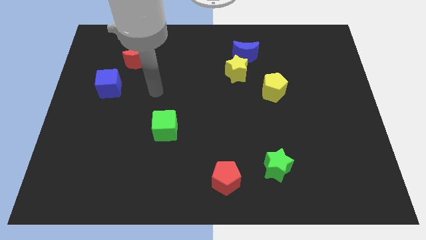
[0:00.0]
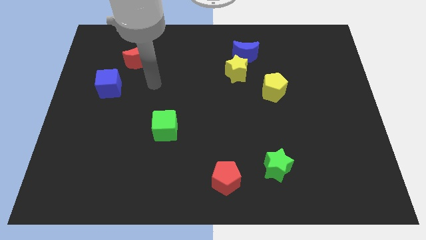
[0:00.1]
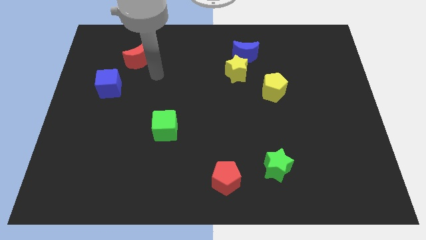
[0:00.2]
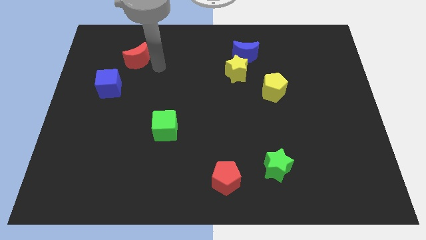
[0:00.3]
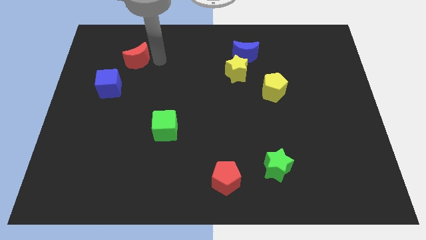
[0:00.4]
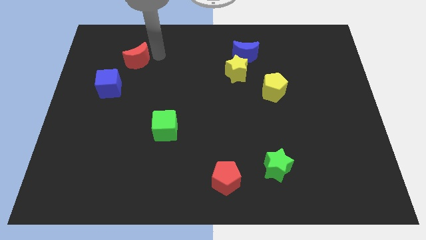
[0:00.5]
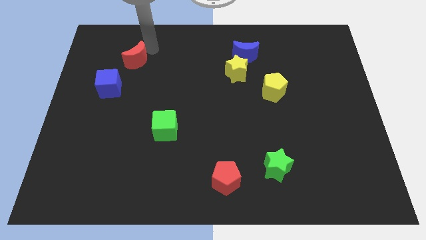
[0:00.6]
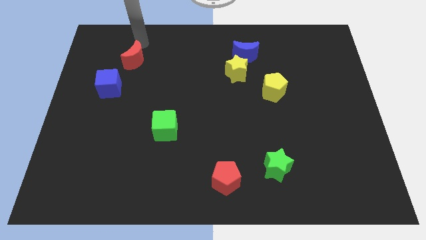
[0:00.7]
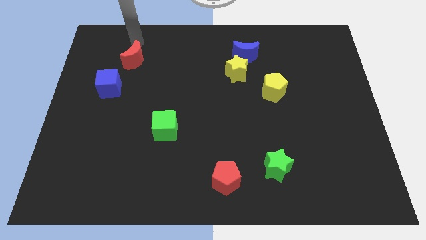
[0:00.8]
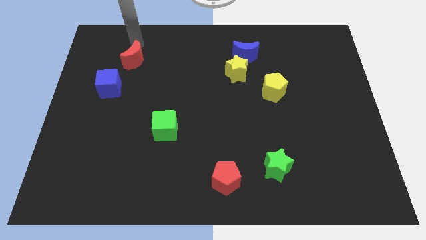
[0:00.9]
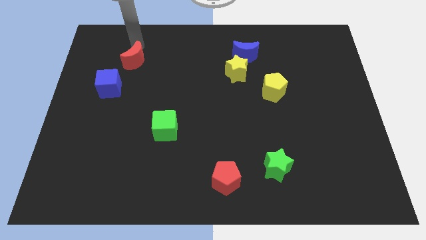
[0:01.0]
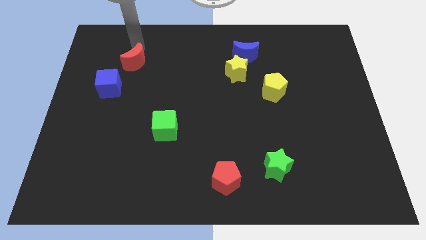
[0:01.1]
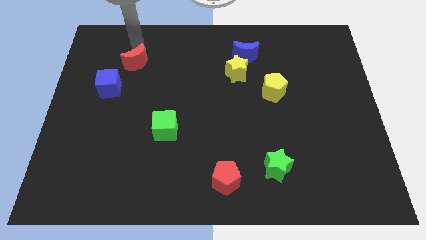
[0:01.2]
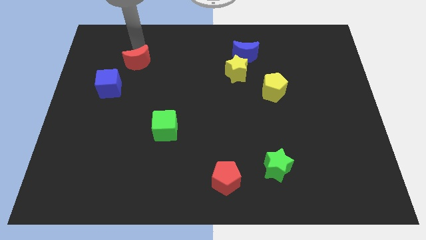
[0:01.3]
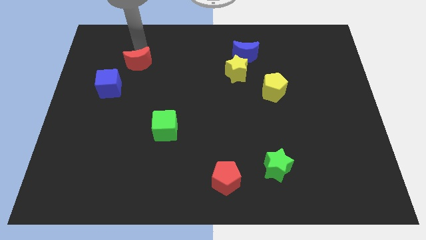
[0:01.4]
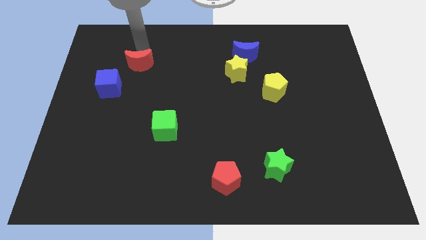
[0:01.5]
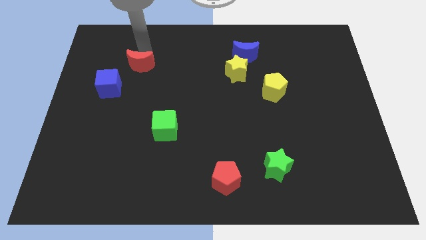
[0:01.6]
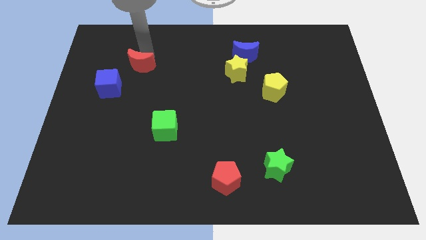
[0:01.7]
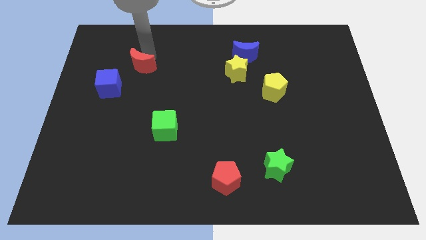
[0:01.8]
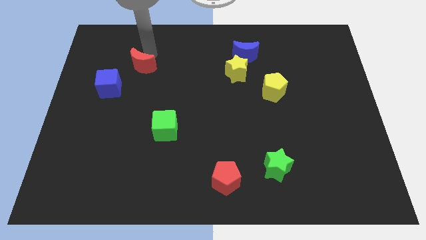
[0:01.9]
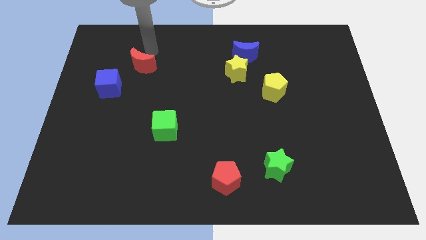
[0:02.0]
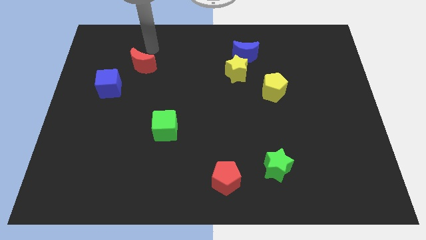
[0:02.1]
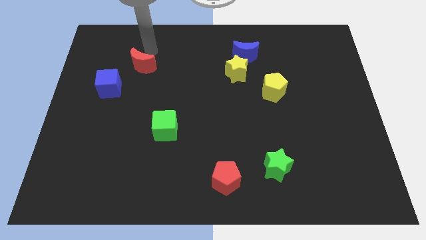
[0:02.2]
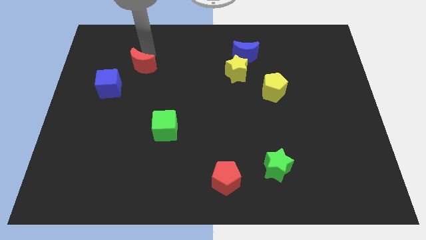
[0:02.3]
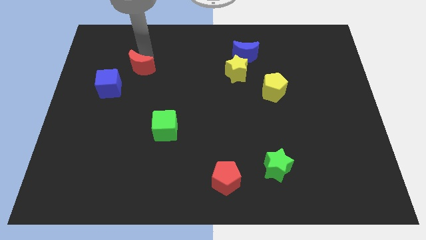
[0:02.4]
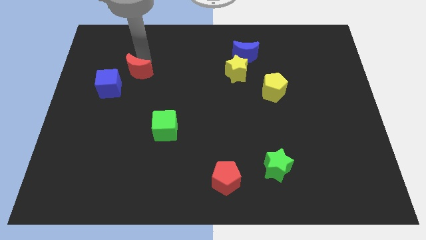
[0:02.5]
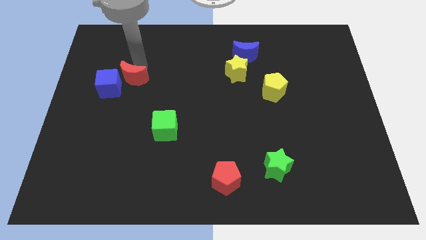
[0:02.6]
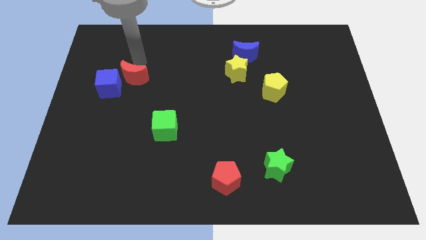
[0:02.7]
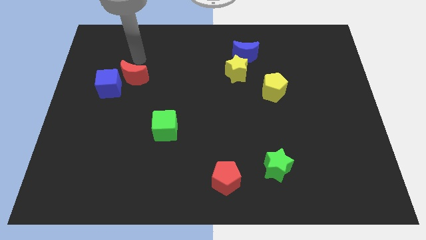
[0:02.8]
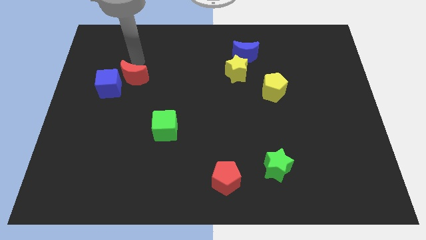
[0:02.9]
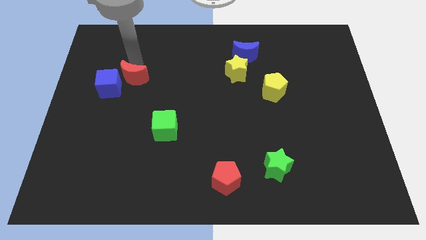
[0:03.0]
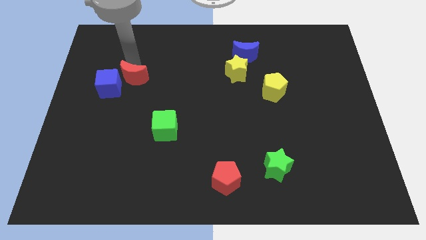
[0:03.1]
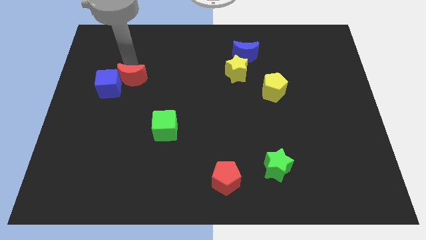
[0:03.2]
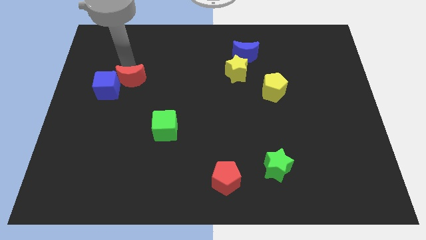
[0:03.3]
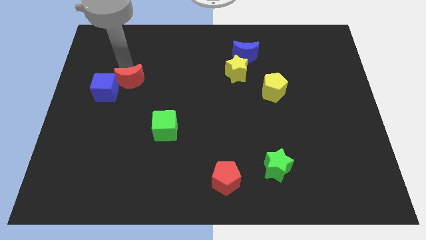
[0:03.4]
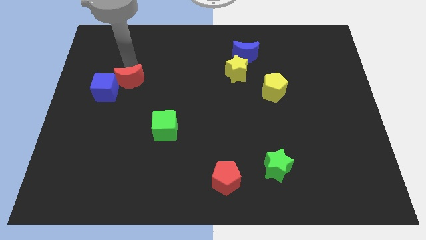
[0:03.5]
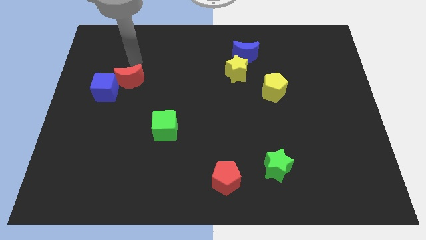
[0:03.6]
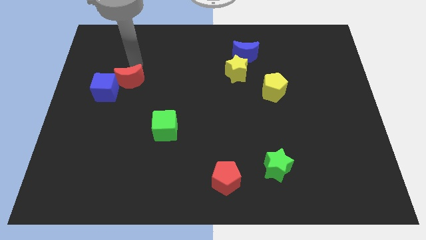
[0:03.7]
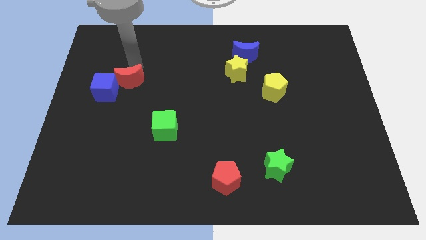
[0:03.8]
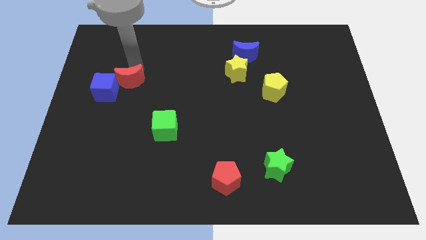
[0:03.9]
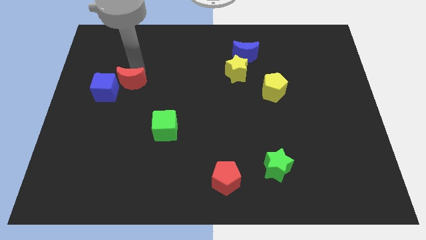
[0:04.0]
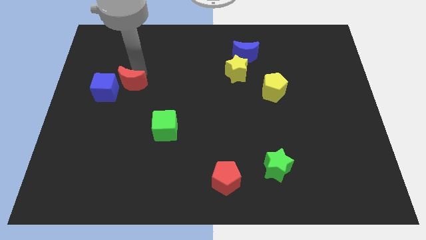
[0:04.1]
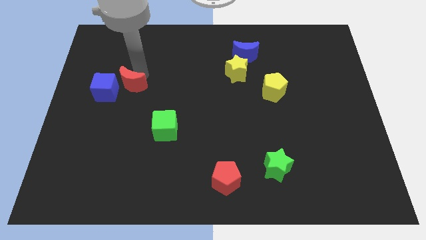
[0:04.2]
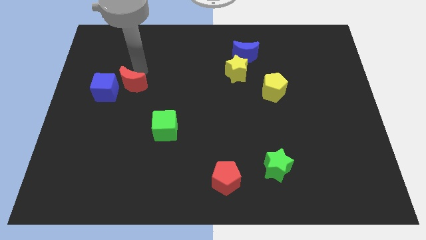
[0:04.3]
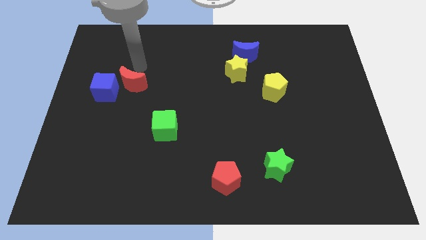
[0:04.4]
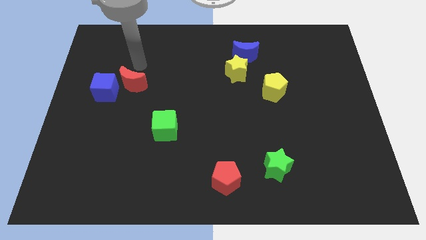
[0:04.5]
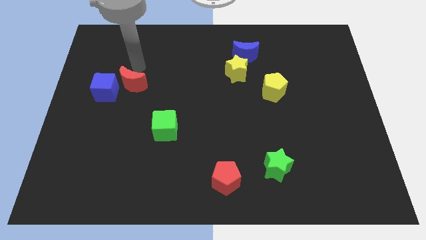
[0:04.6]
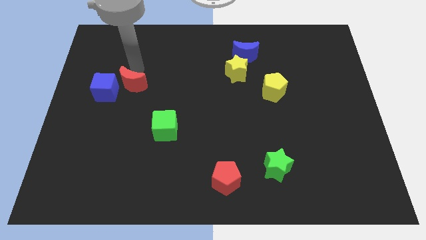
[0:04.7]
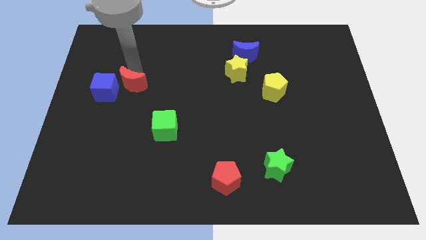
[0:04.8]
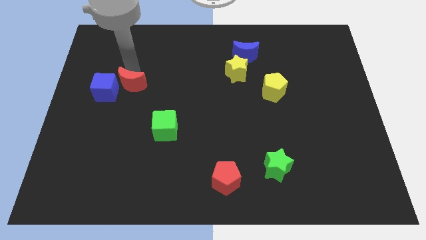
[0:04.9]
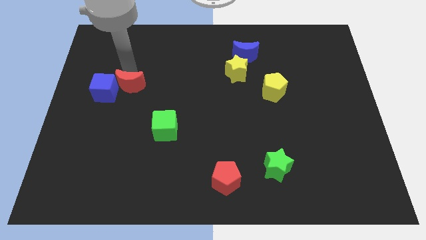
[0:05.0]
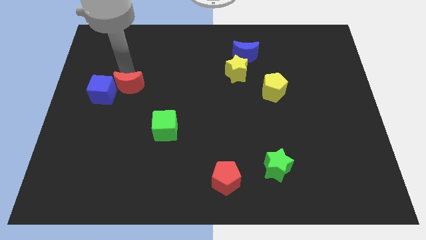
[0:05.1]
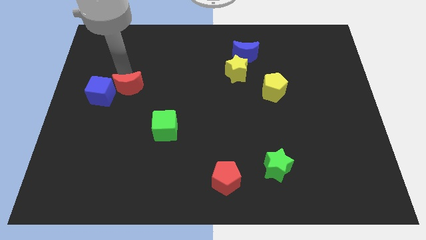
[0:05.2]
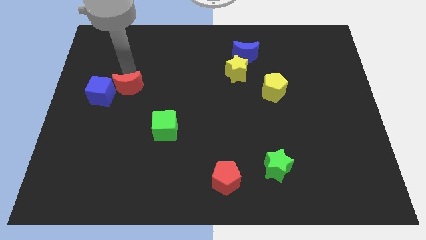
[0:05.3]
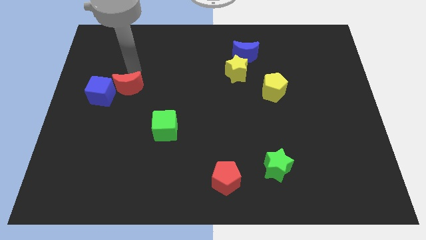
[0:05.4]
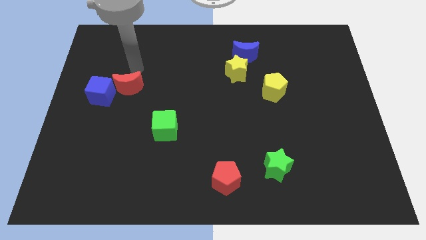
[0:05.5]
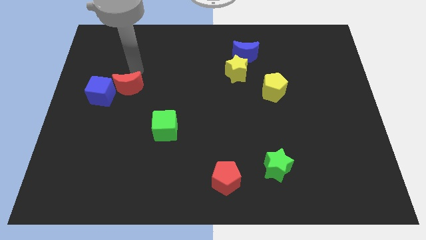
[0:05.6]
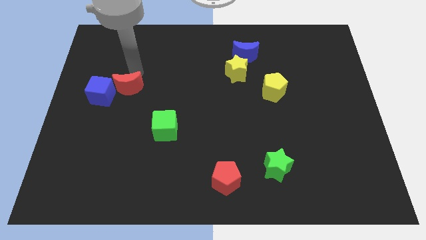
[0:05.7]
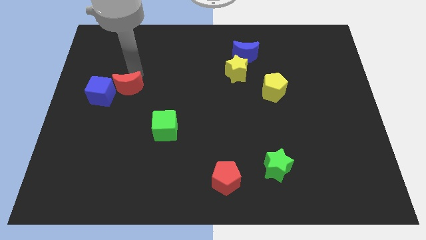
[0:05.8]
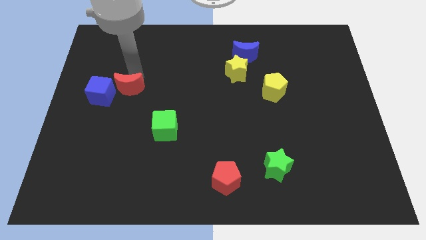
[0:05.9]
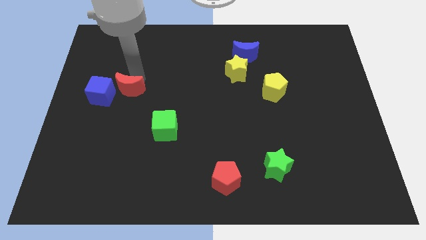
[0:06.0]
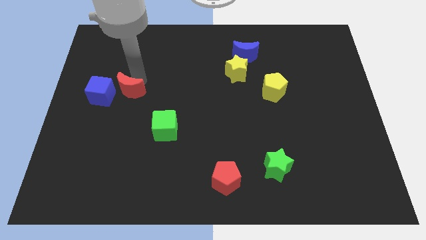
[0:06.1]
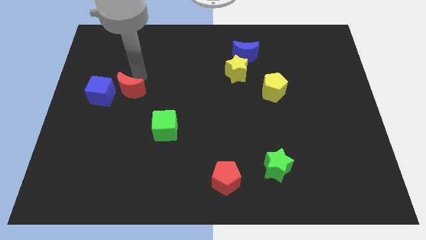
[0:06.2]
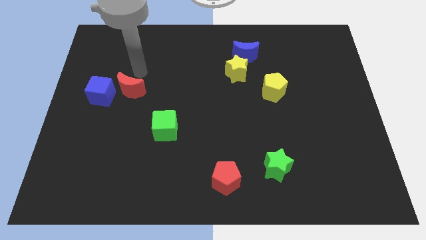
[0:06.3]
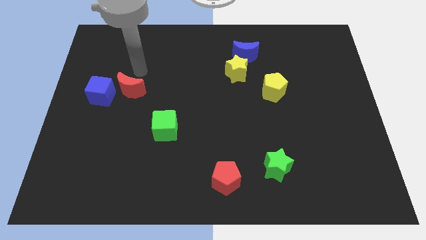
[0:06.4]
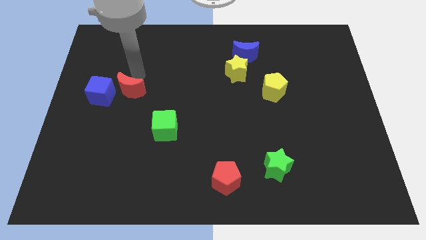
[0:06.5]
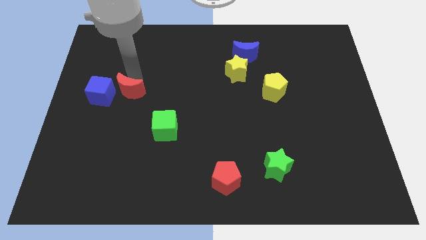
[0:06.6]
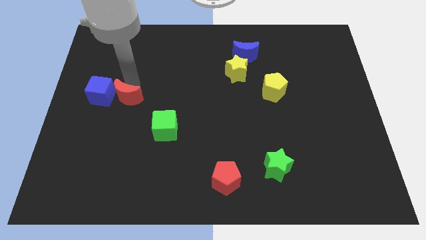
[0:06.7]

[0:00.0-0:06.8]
slide the red moon to the bottom right of the blue cube
